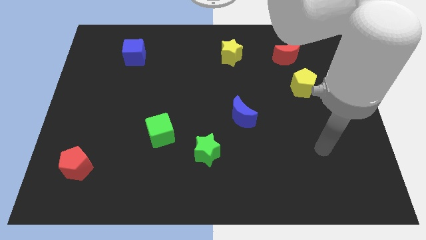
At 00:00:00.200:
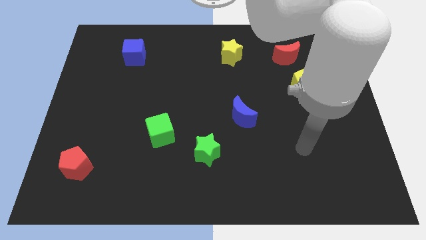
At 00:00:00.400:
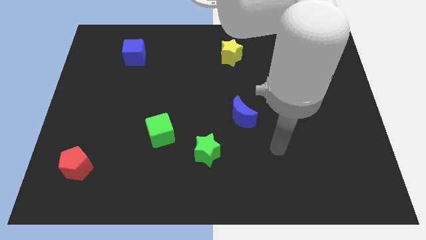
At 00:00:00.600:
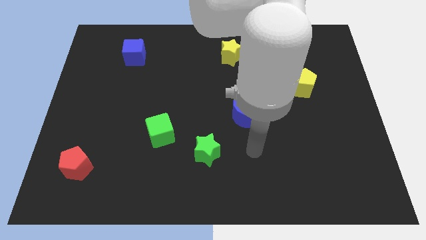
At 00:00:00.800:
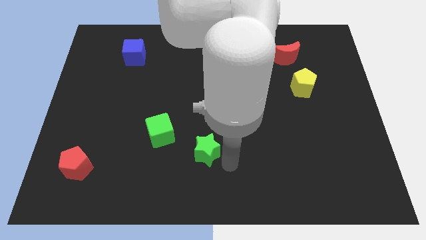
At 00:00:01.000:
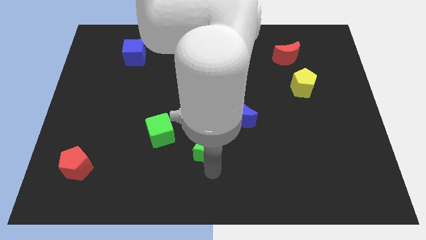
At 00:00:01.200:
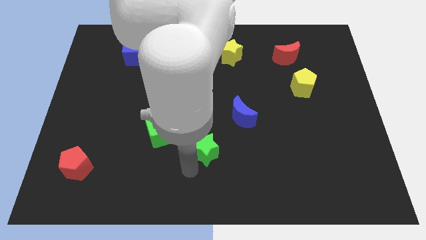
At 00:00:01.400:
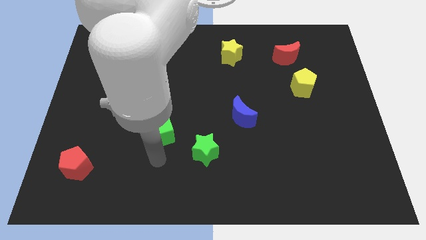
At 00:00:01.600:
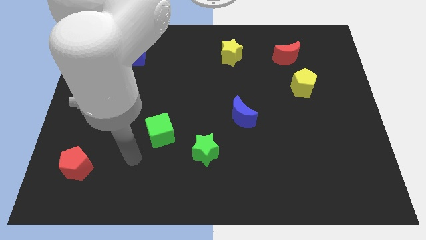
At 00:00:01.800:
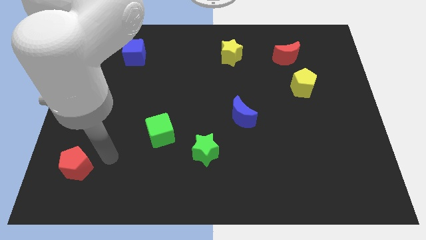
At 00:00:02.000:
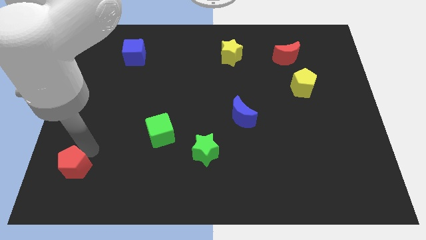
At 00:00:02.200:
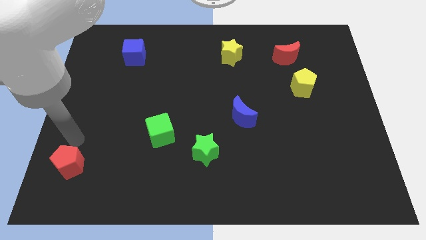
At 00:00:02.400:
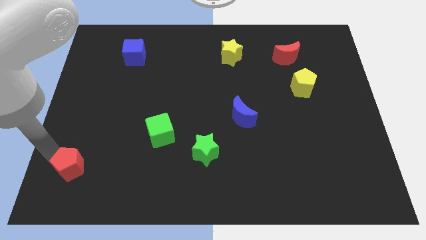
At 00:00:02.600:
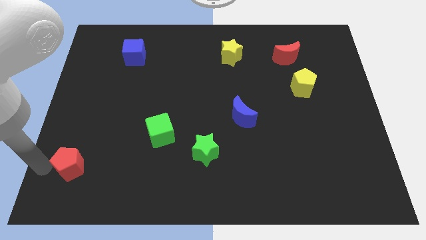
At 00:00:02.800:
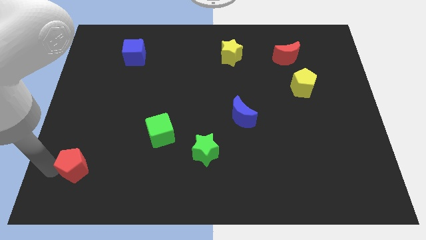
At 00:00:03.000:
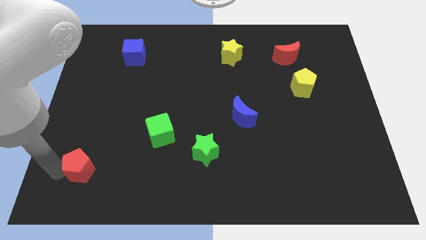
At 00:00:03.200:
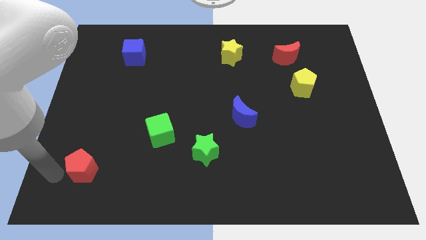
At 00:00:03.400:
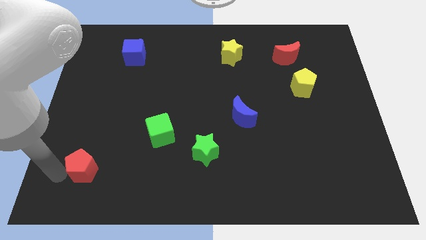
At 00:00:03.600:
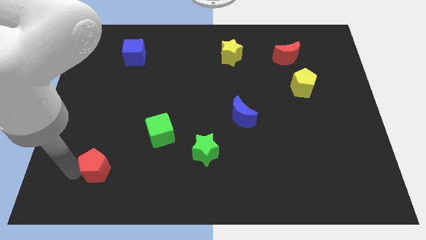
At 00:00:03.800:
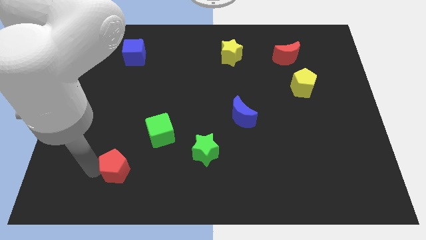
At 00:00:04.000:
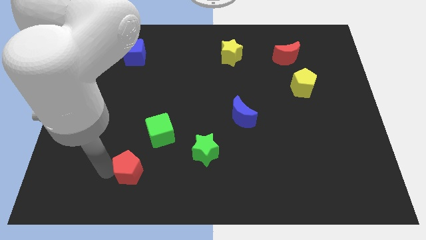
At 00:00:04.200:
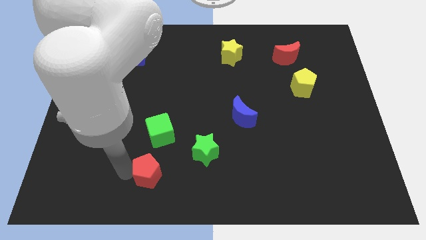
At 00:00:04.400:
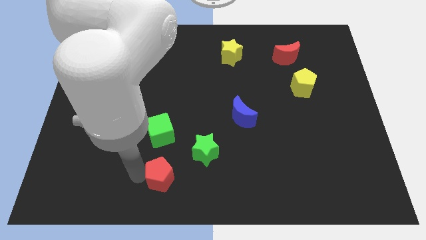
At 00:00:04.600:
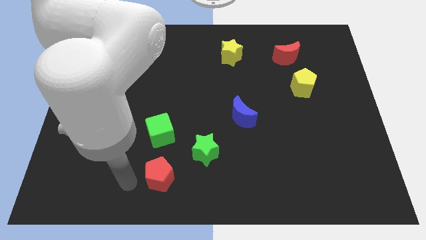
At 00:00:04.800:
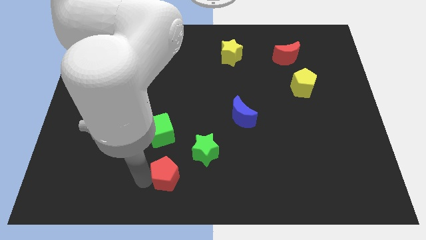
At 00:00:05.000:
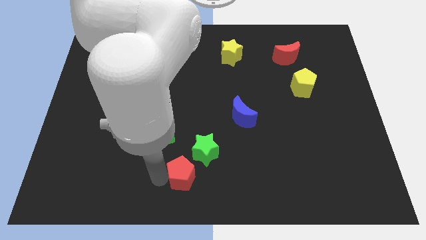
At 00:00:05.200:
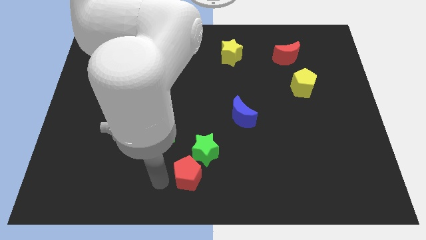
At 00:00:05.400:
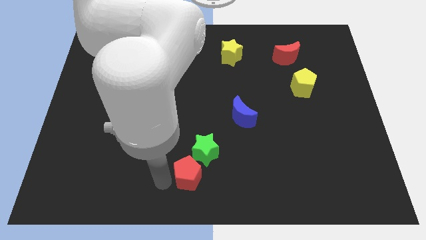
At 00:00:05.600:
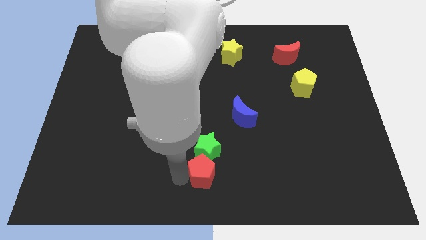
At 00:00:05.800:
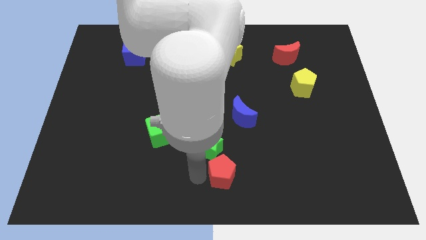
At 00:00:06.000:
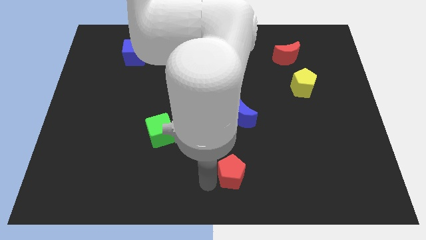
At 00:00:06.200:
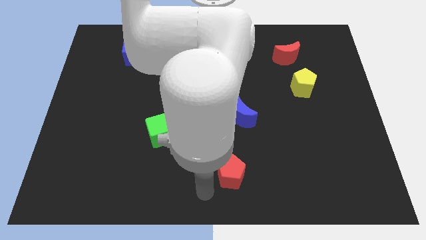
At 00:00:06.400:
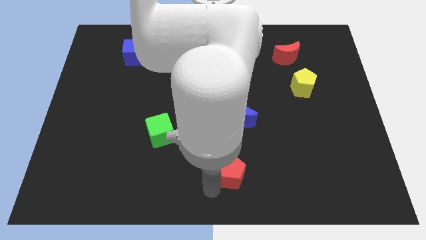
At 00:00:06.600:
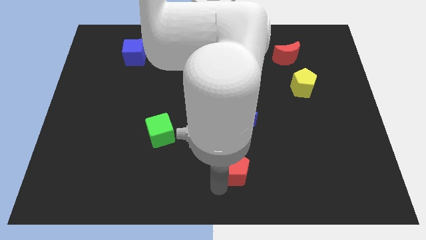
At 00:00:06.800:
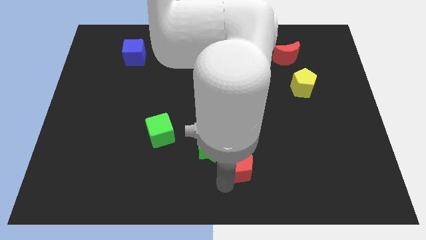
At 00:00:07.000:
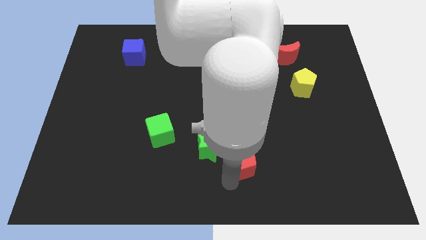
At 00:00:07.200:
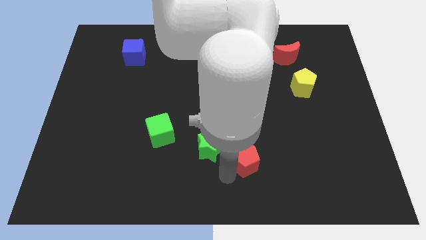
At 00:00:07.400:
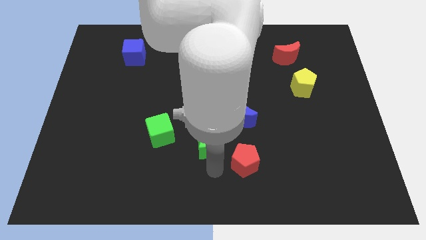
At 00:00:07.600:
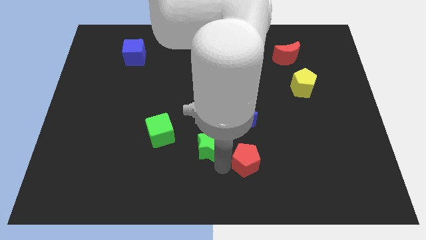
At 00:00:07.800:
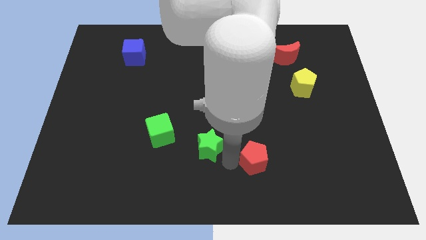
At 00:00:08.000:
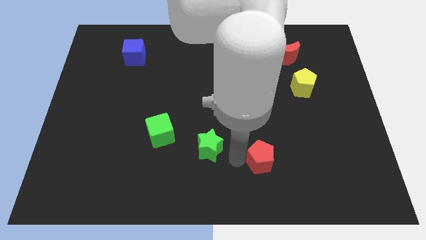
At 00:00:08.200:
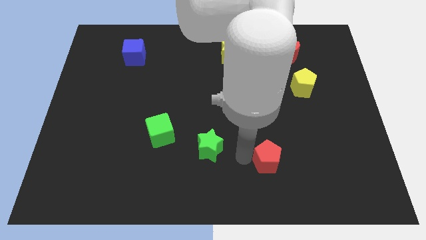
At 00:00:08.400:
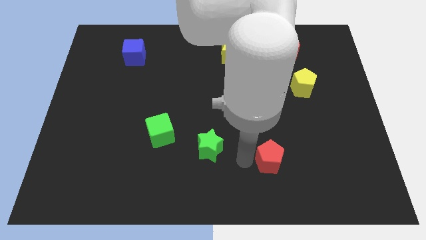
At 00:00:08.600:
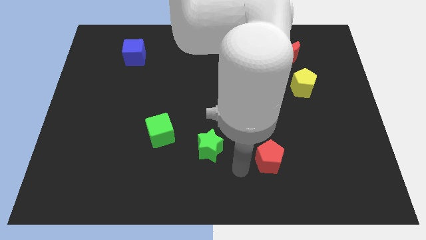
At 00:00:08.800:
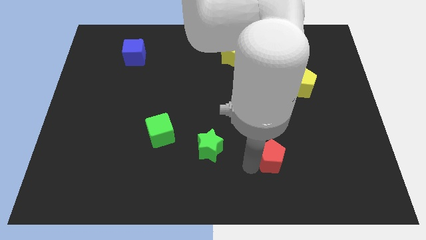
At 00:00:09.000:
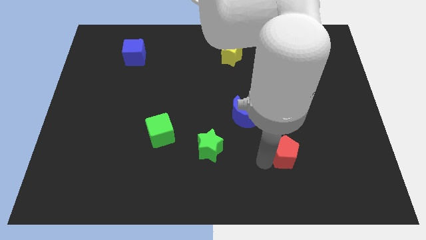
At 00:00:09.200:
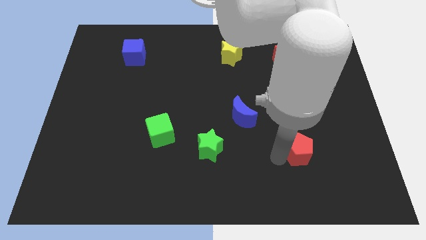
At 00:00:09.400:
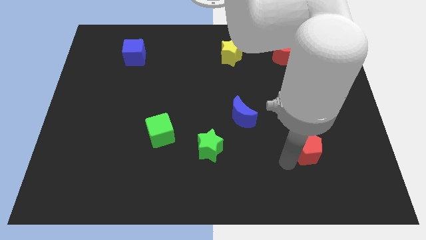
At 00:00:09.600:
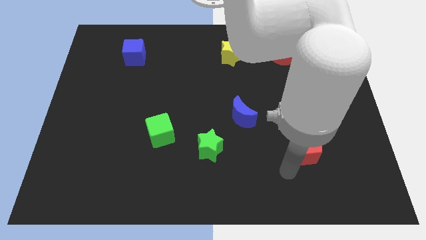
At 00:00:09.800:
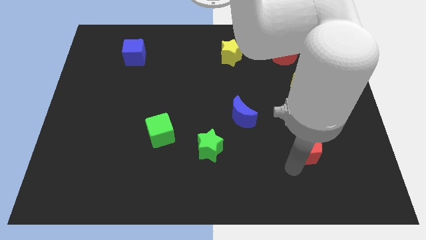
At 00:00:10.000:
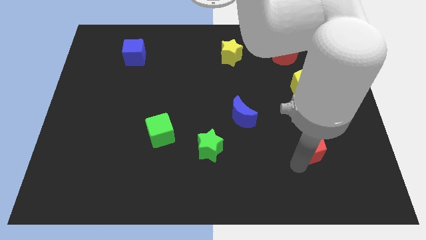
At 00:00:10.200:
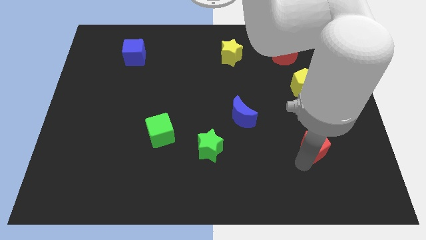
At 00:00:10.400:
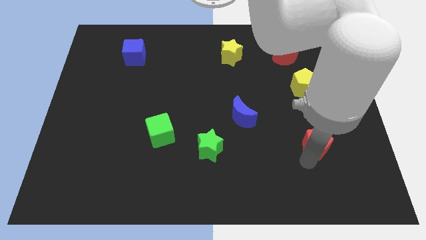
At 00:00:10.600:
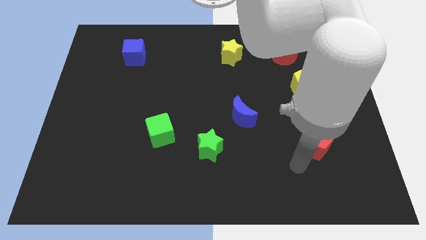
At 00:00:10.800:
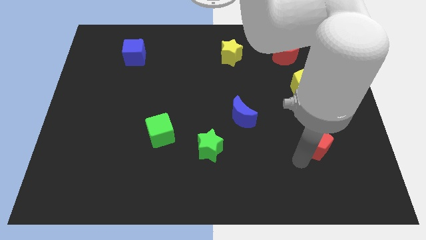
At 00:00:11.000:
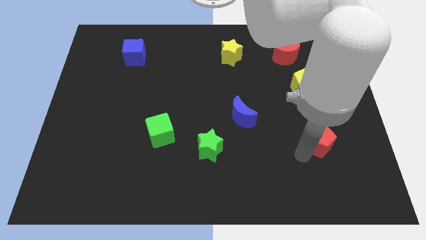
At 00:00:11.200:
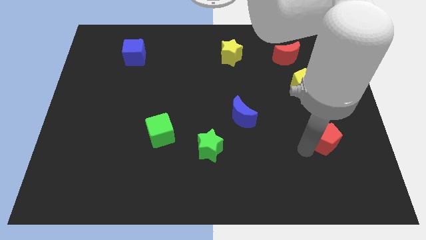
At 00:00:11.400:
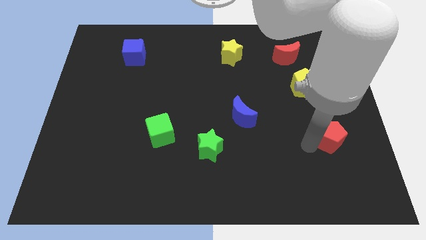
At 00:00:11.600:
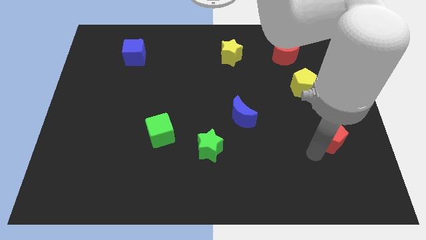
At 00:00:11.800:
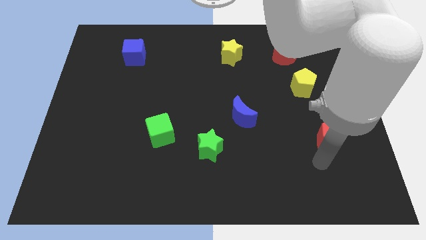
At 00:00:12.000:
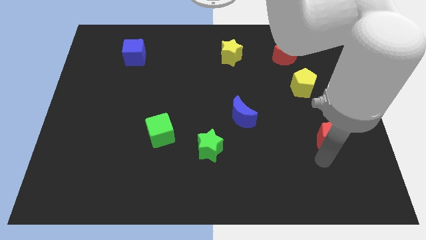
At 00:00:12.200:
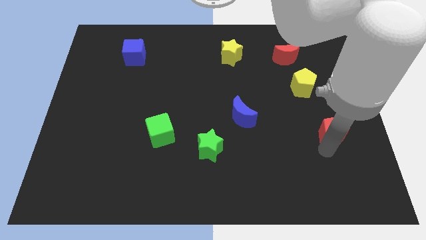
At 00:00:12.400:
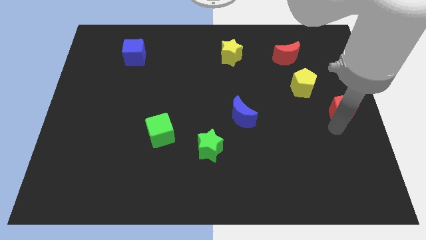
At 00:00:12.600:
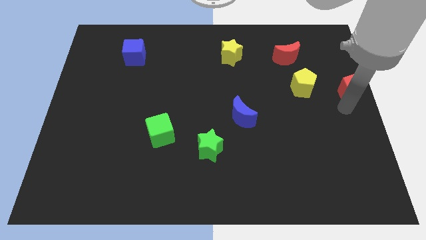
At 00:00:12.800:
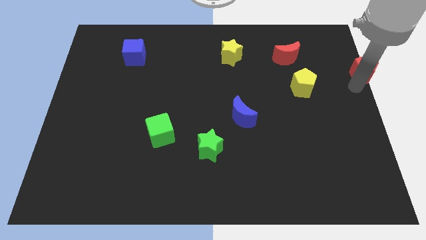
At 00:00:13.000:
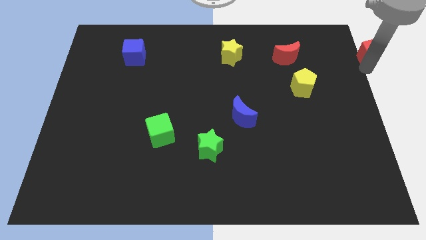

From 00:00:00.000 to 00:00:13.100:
push the red pentagon to the upper right corner

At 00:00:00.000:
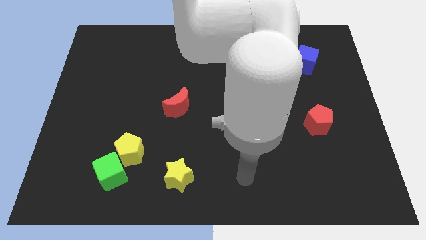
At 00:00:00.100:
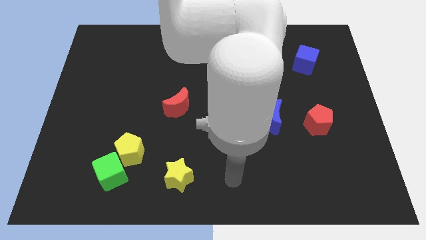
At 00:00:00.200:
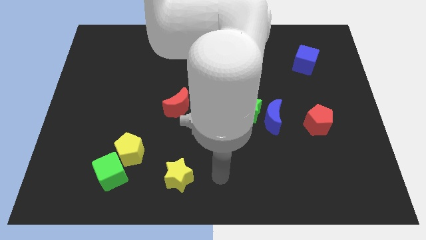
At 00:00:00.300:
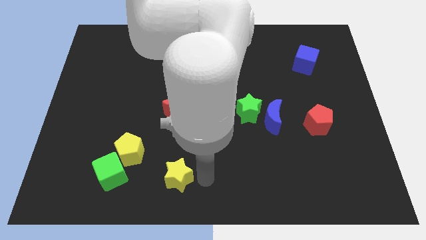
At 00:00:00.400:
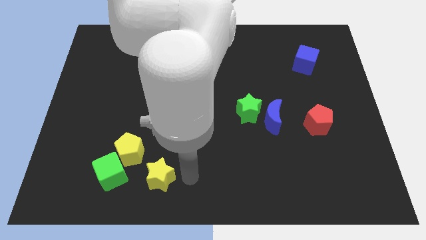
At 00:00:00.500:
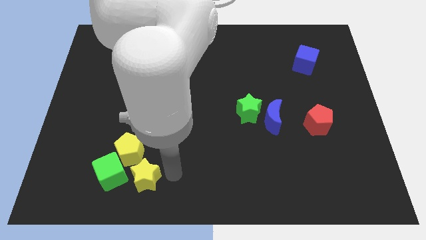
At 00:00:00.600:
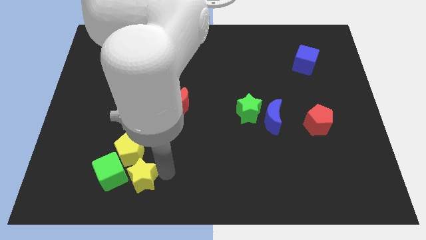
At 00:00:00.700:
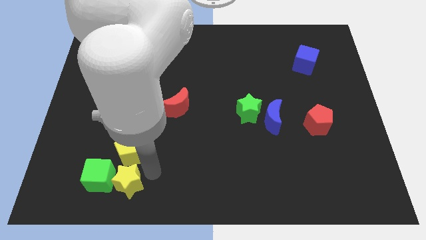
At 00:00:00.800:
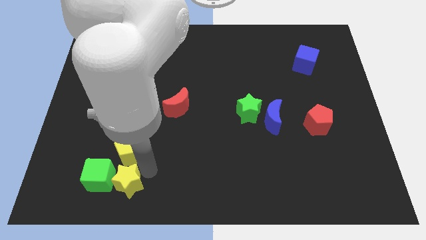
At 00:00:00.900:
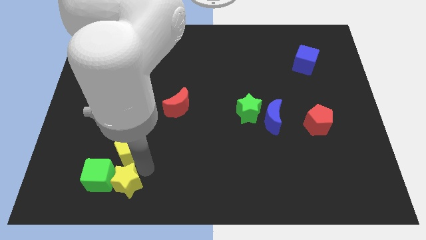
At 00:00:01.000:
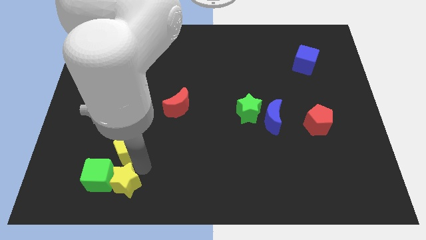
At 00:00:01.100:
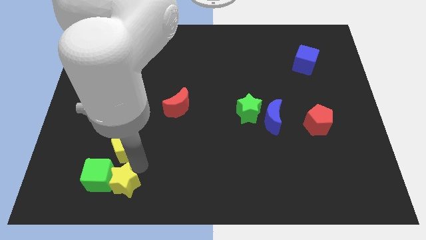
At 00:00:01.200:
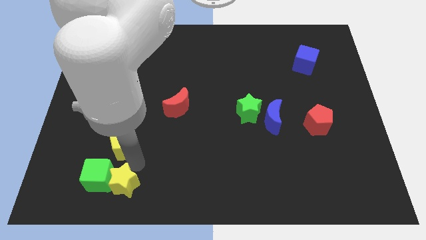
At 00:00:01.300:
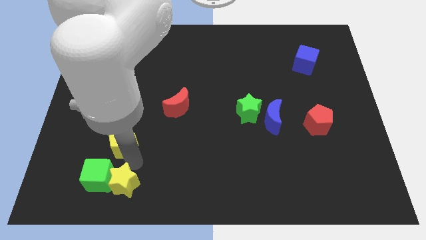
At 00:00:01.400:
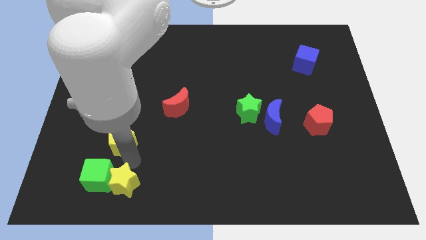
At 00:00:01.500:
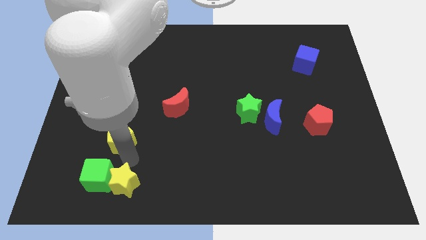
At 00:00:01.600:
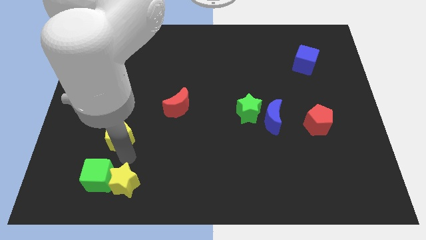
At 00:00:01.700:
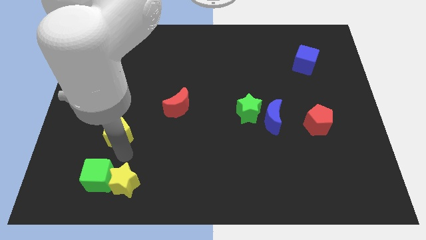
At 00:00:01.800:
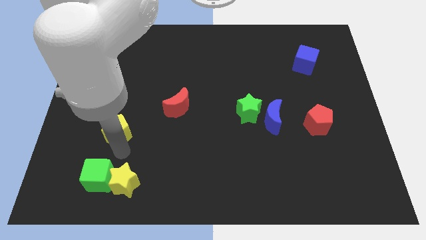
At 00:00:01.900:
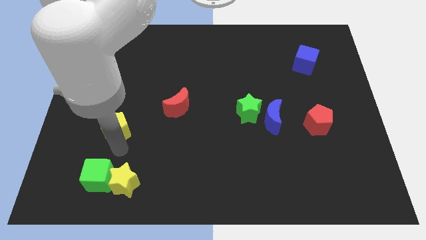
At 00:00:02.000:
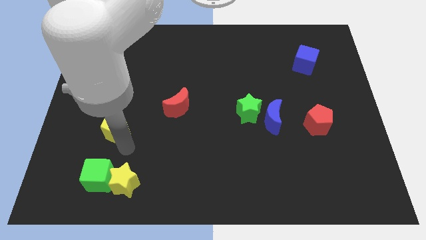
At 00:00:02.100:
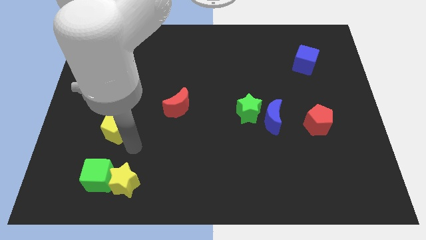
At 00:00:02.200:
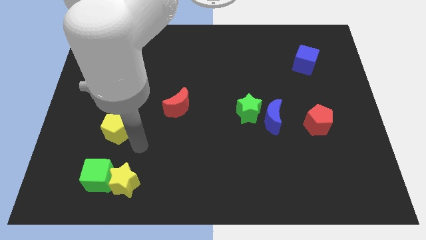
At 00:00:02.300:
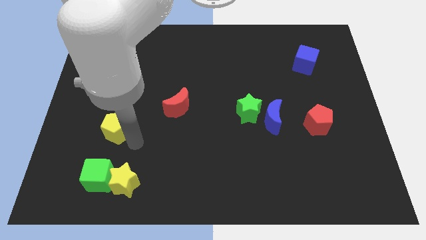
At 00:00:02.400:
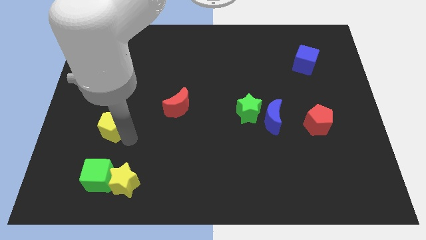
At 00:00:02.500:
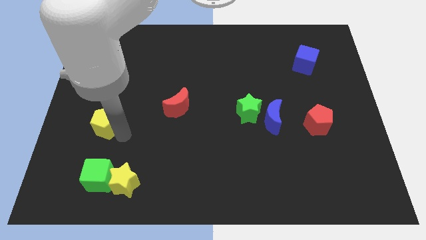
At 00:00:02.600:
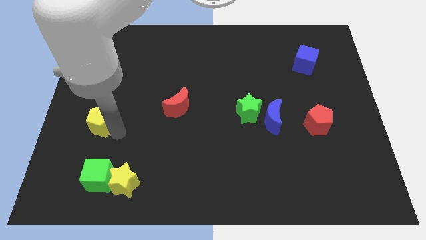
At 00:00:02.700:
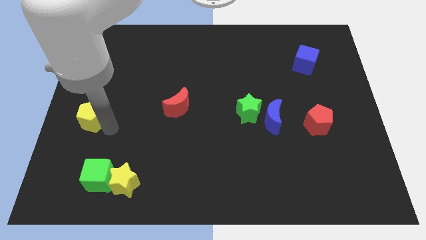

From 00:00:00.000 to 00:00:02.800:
slide the yellow pentagon to the left side
